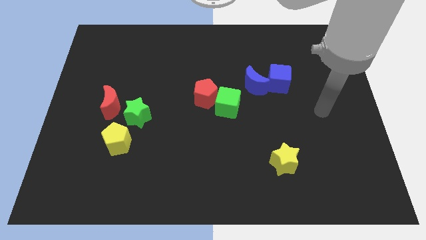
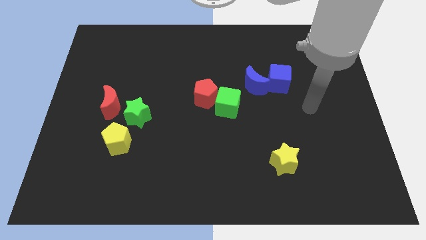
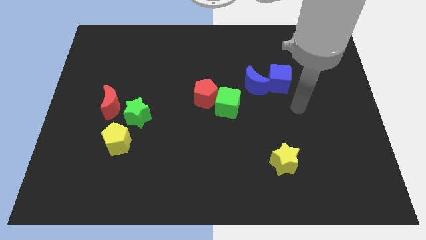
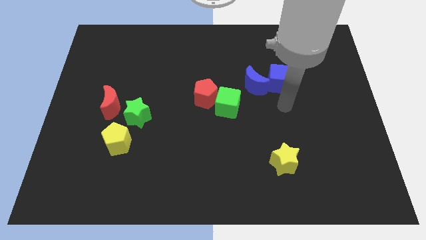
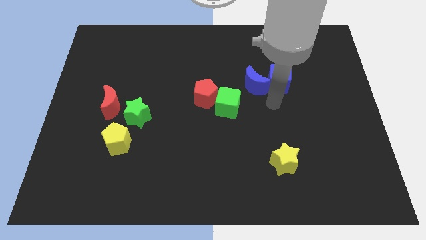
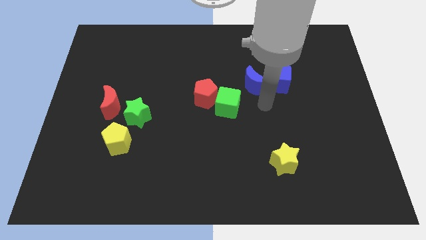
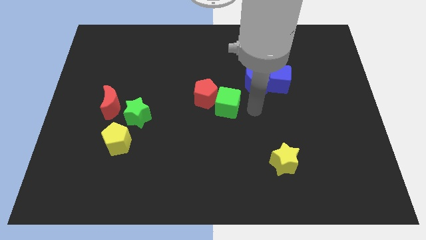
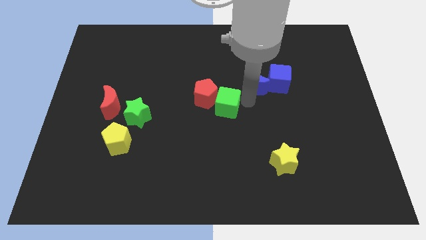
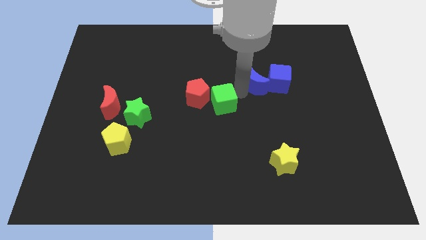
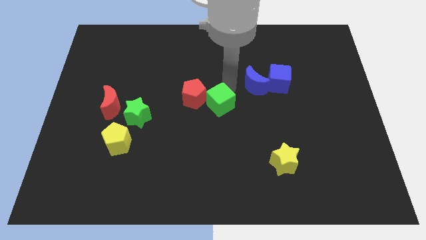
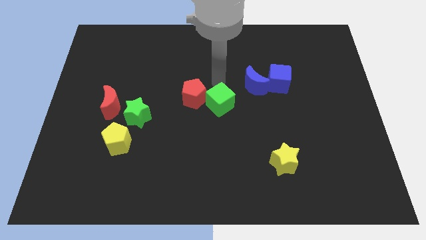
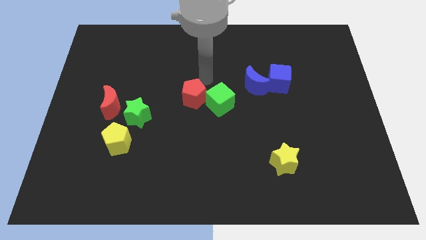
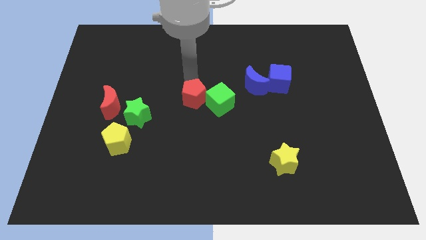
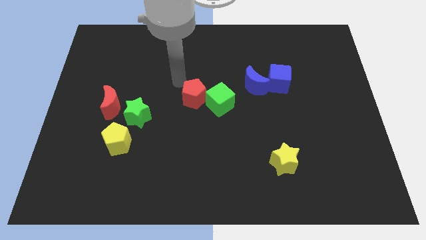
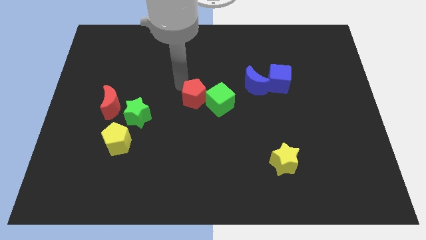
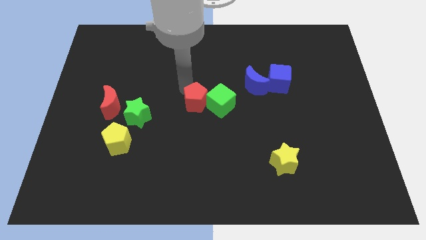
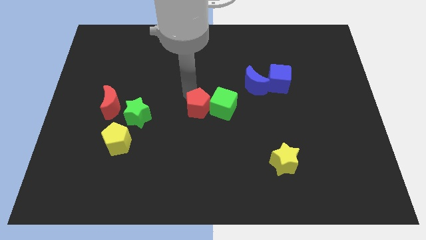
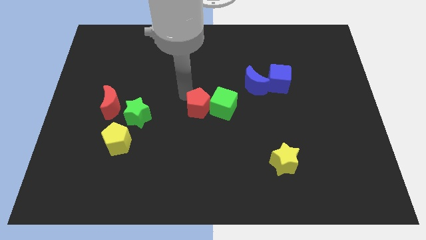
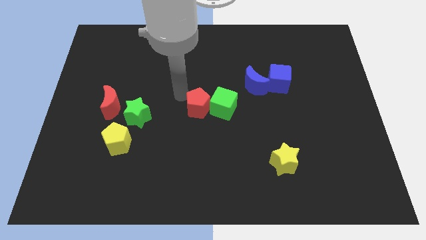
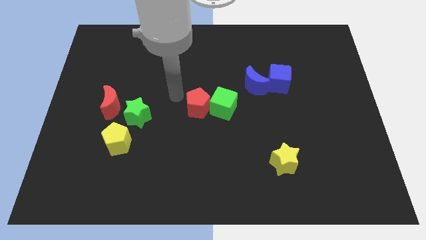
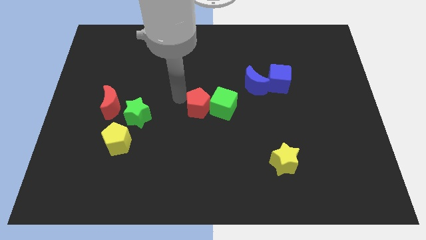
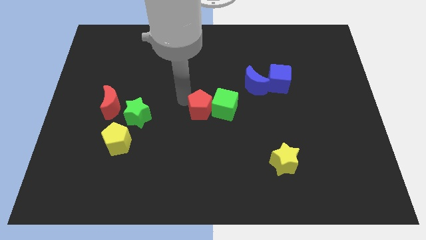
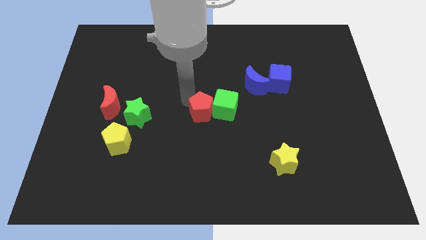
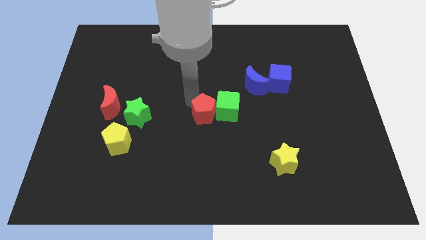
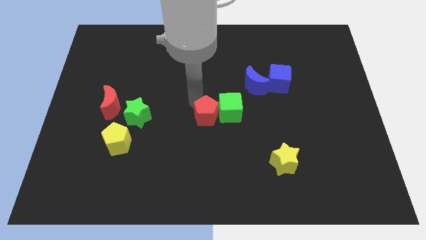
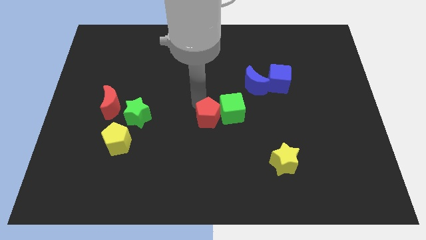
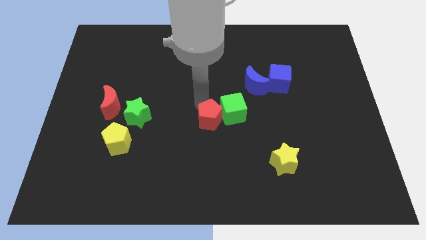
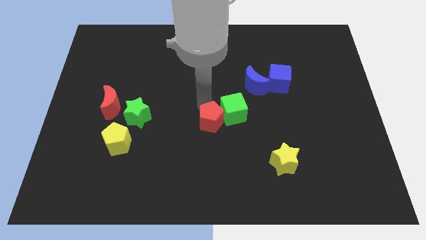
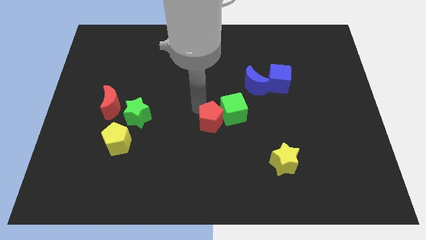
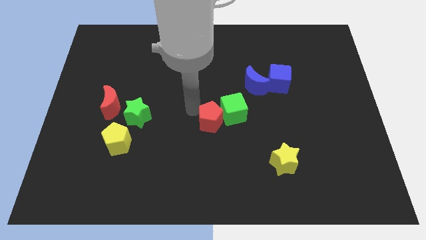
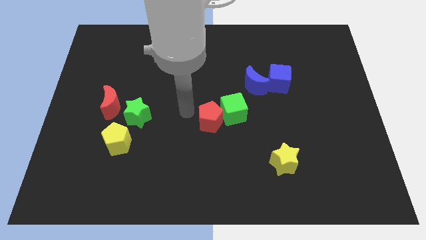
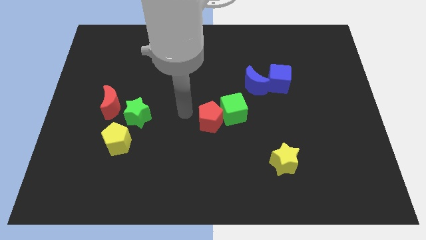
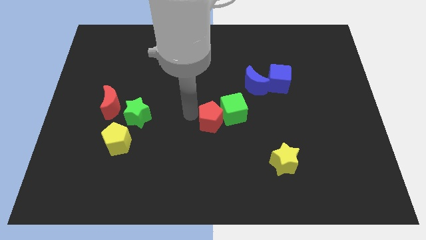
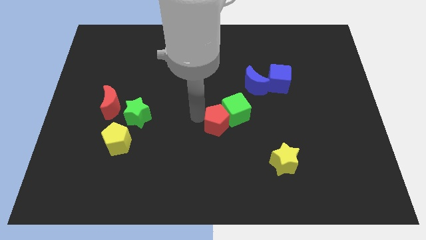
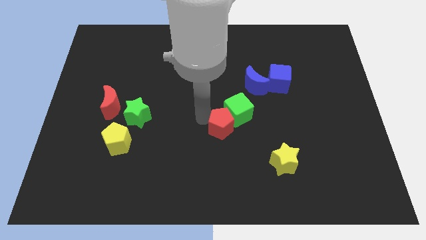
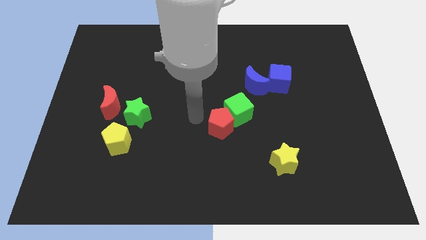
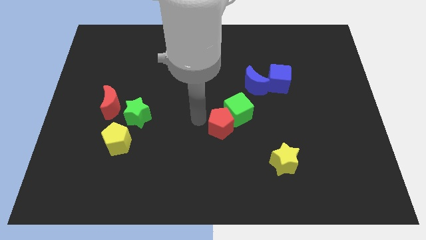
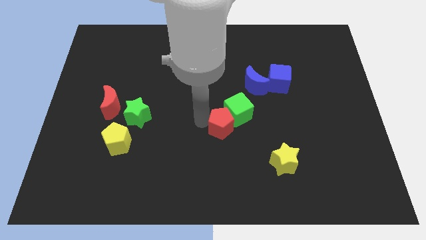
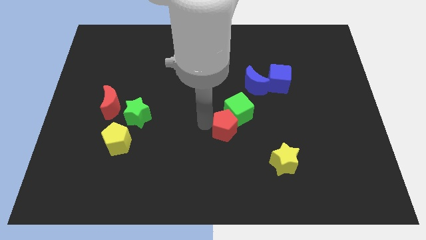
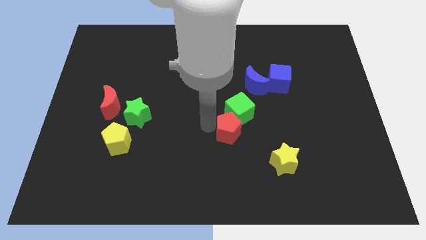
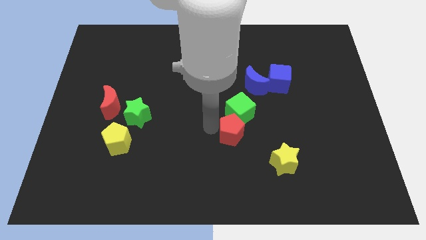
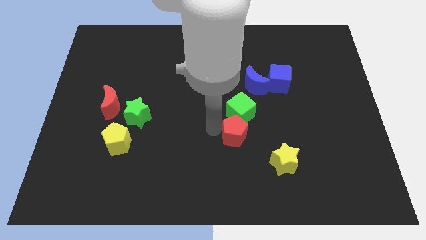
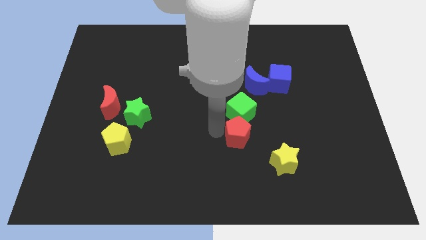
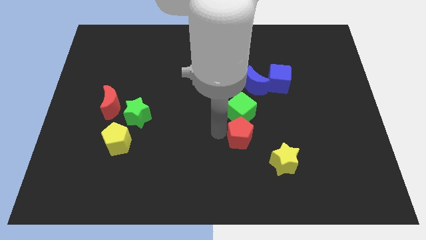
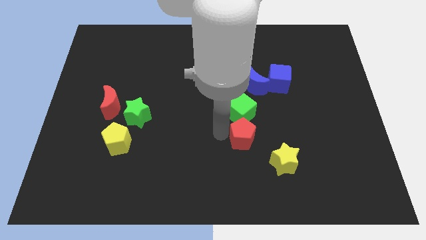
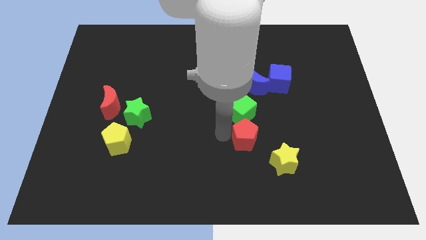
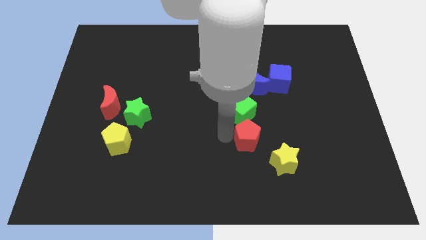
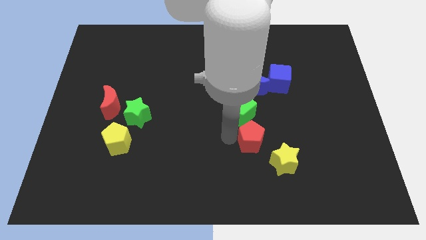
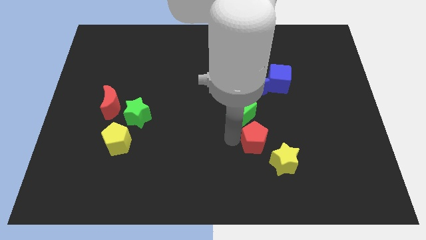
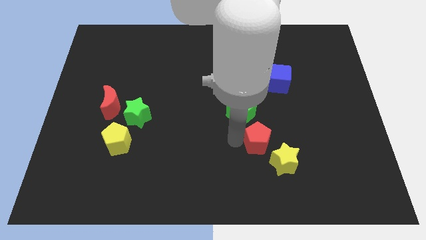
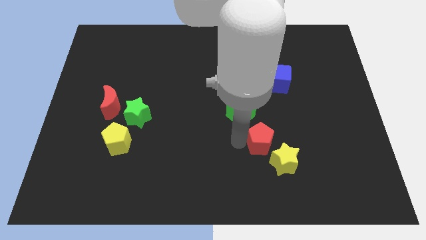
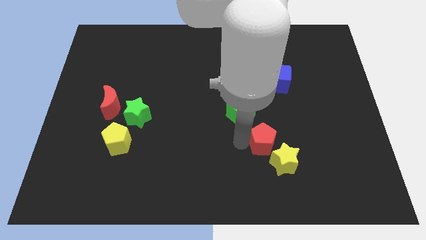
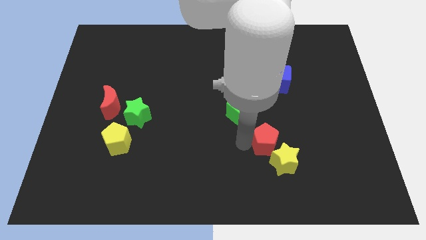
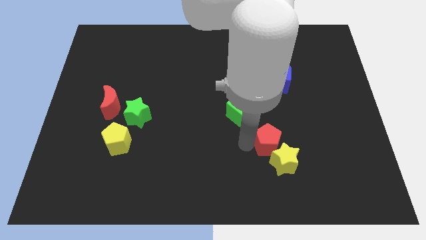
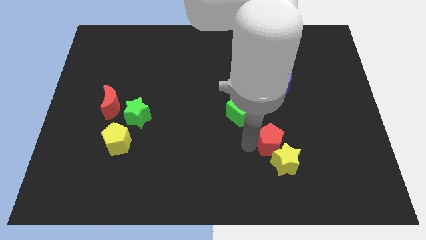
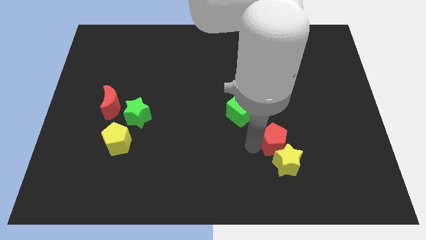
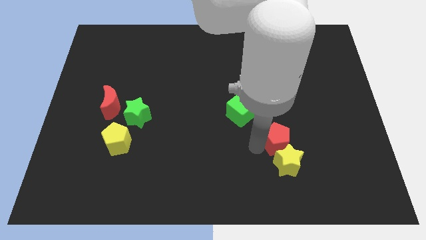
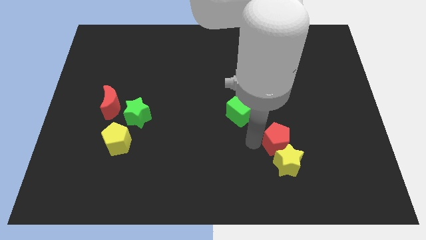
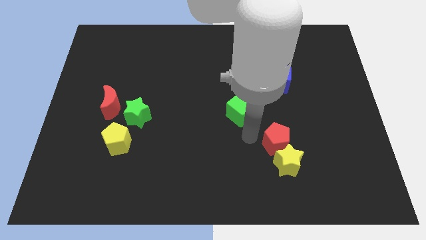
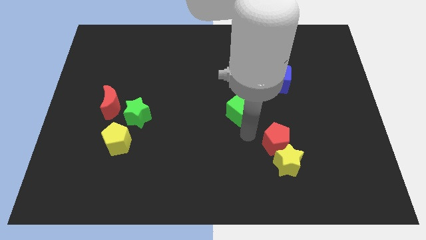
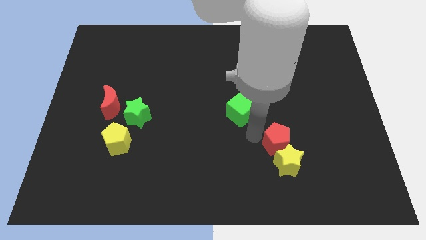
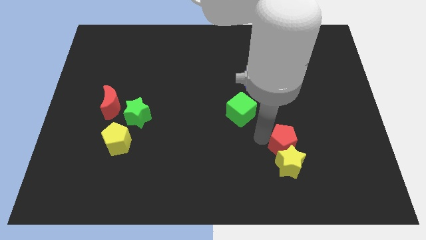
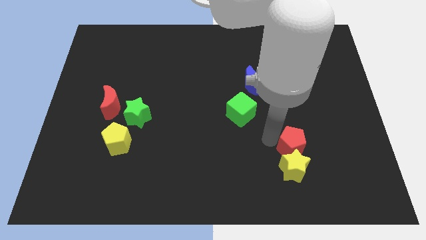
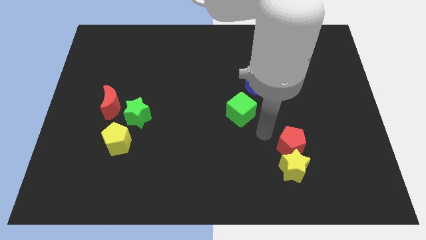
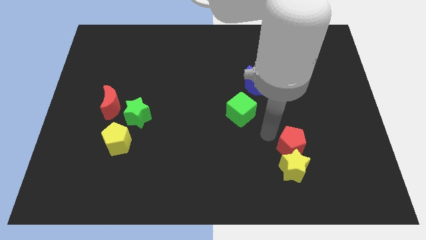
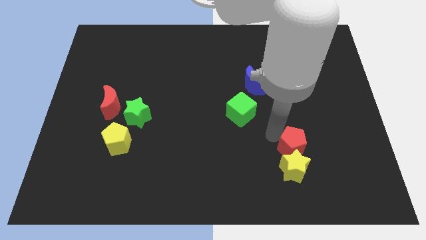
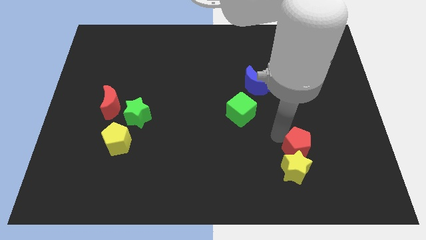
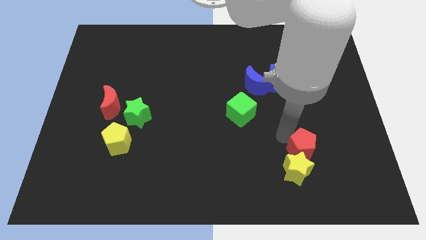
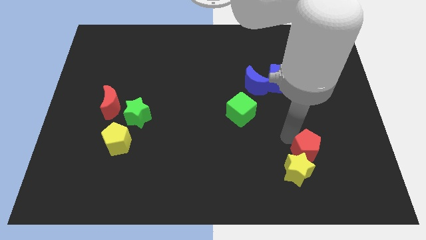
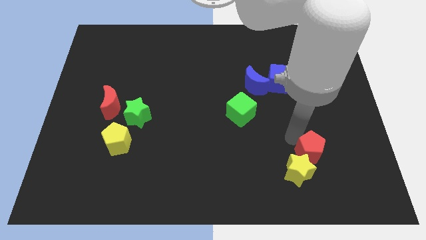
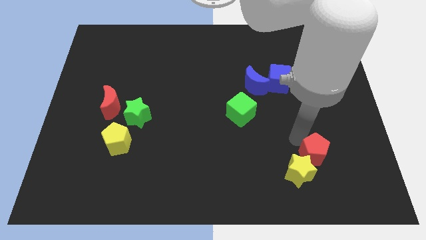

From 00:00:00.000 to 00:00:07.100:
push the red pentagon to the right of the yellow star

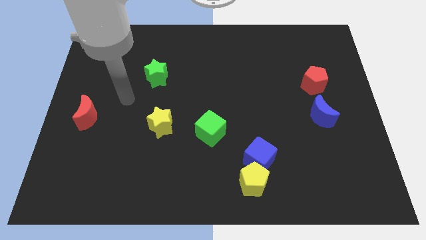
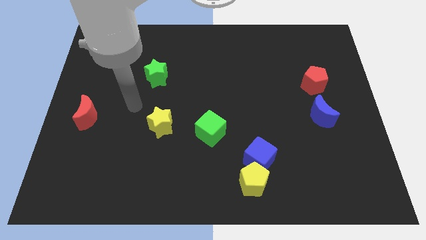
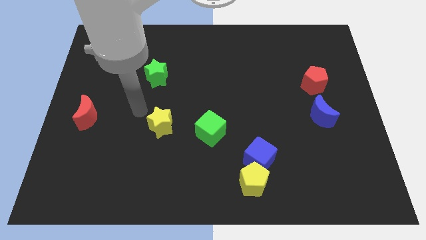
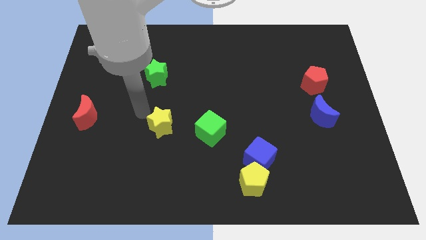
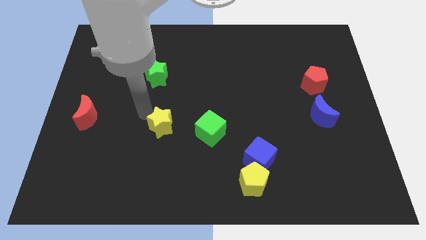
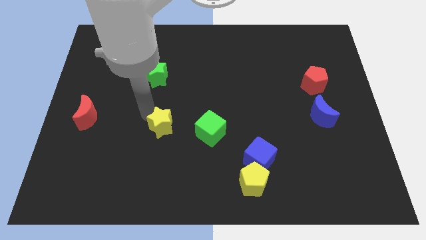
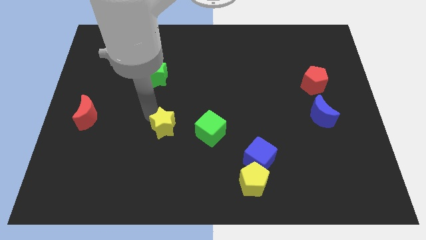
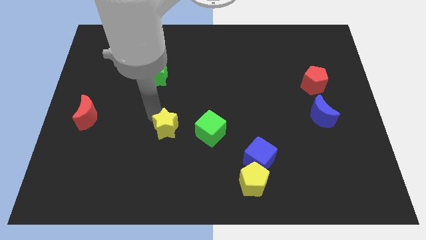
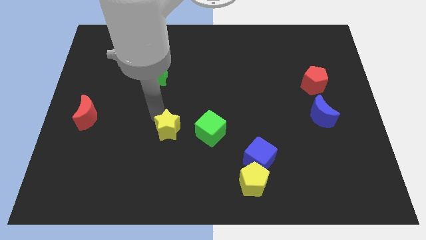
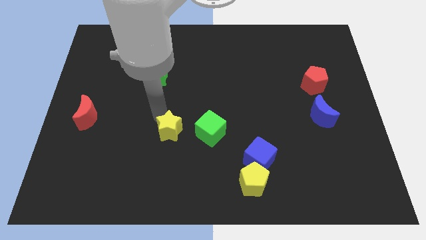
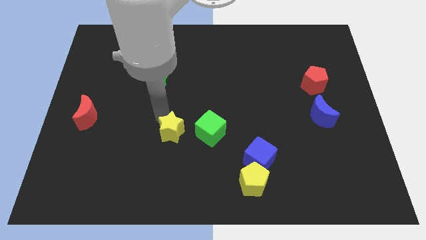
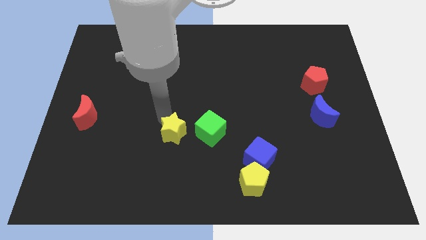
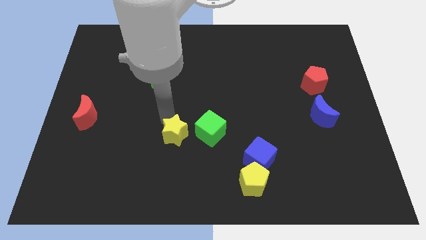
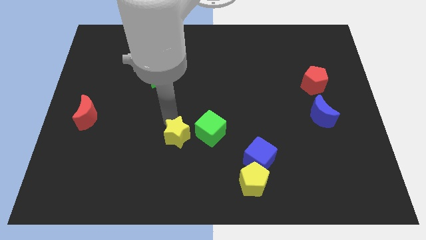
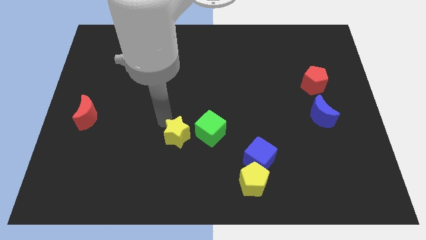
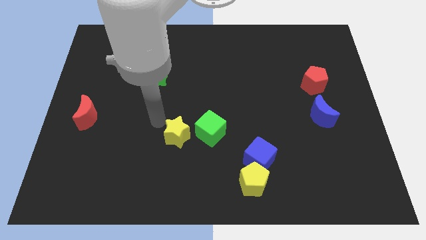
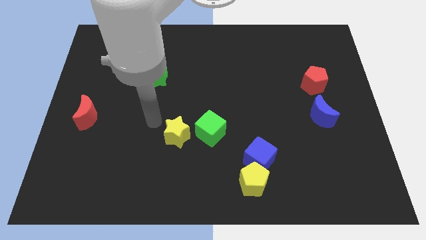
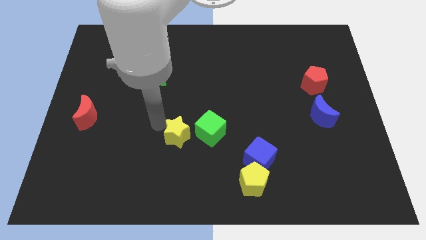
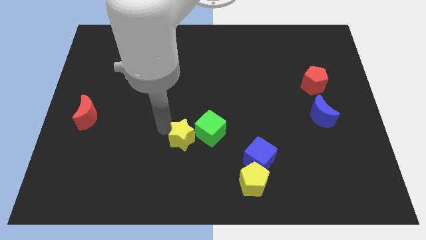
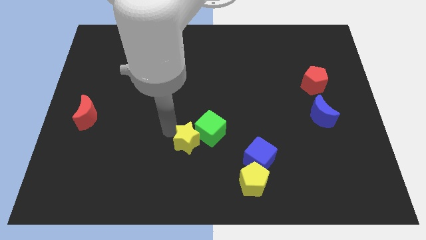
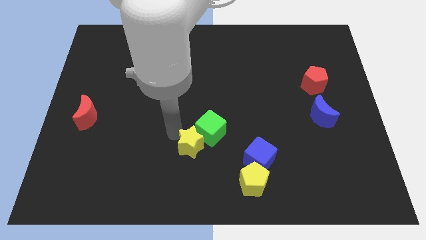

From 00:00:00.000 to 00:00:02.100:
put the yellow star to the left side of the blue cube
